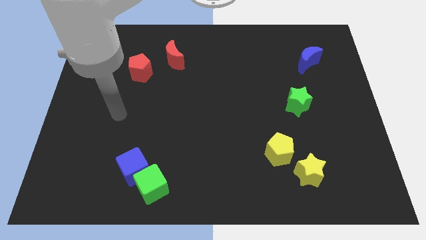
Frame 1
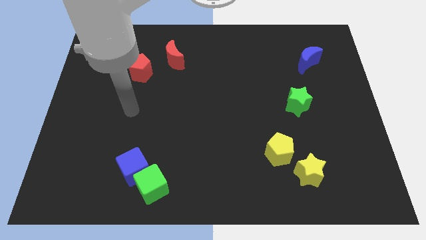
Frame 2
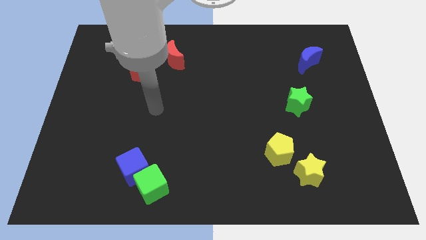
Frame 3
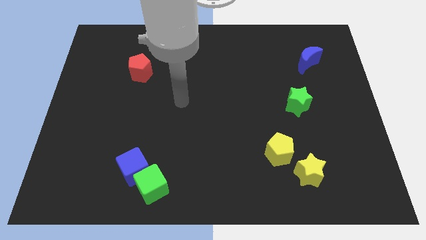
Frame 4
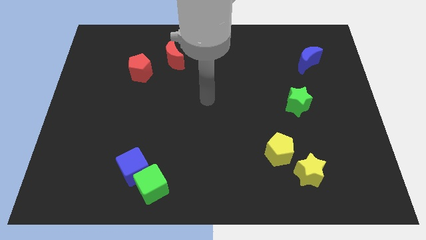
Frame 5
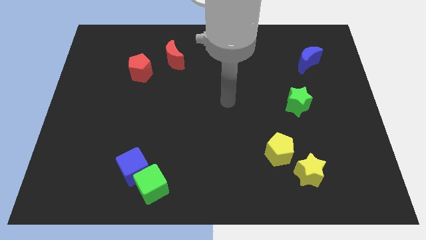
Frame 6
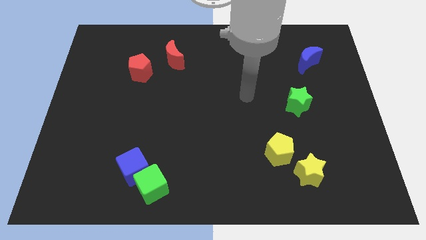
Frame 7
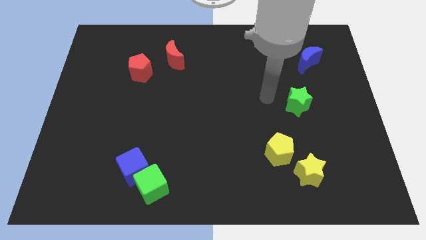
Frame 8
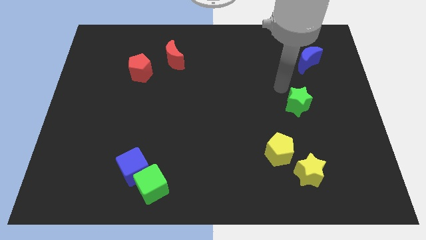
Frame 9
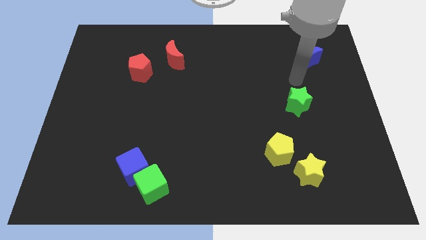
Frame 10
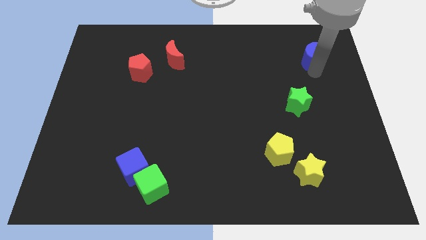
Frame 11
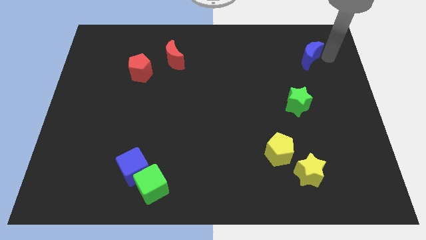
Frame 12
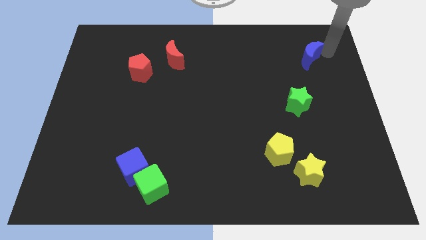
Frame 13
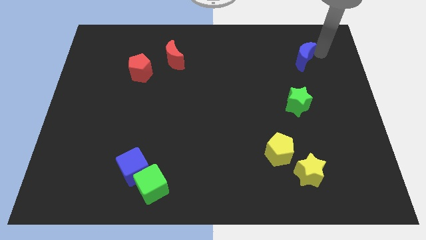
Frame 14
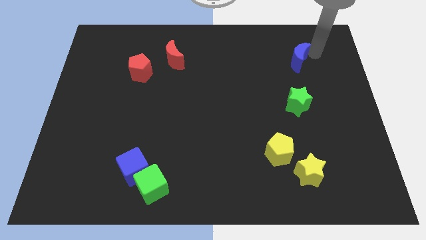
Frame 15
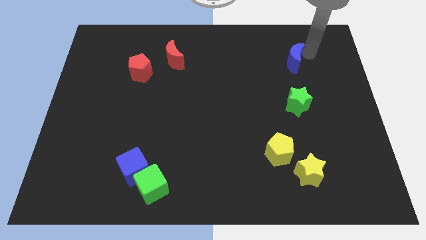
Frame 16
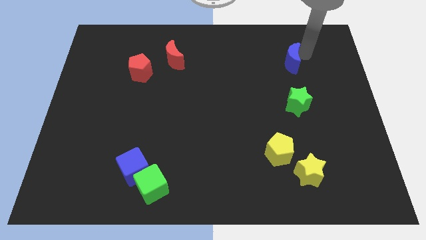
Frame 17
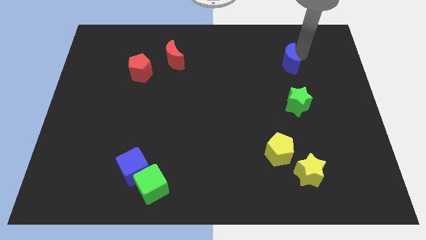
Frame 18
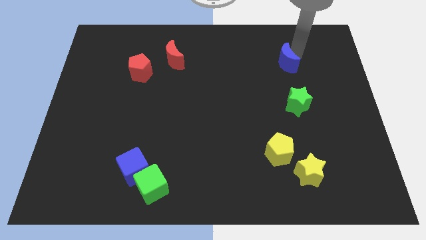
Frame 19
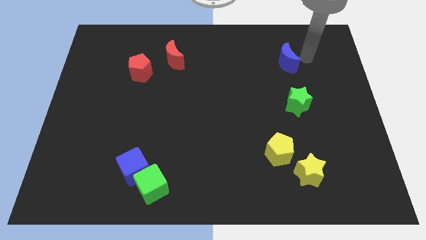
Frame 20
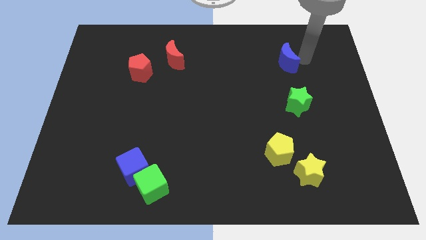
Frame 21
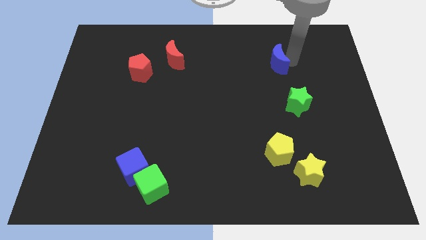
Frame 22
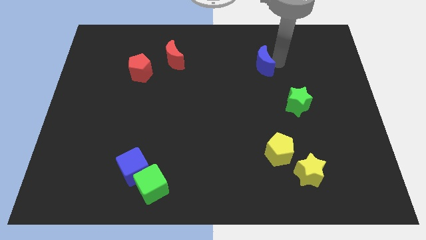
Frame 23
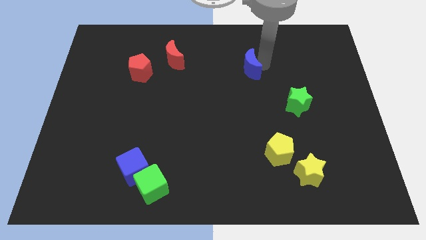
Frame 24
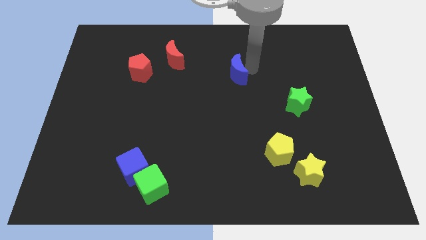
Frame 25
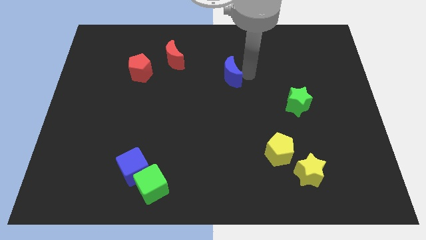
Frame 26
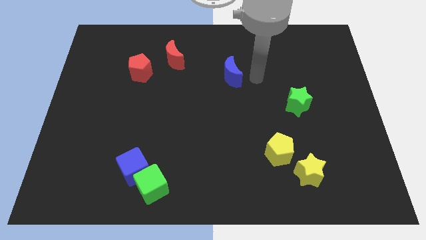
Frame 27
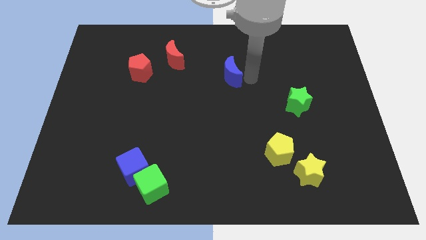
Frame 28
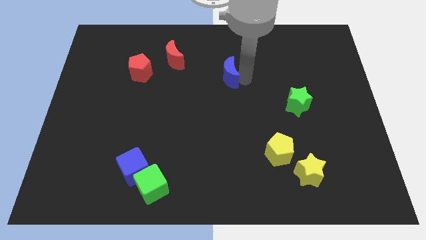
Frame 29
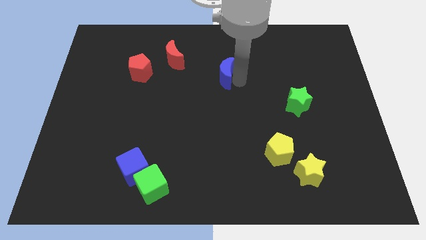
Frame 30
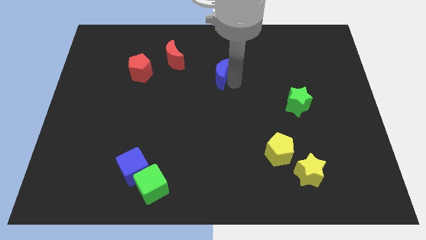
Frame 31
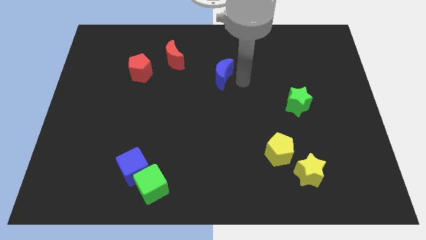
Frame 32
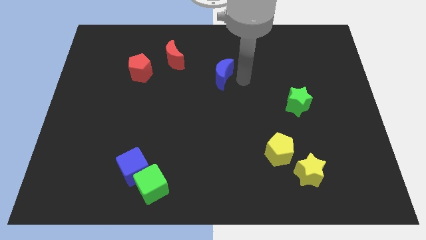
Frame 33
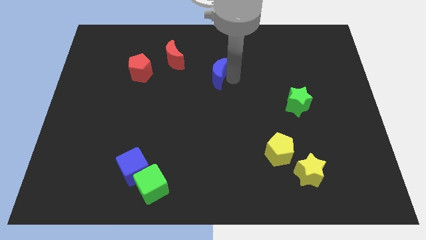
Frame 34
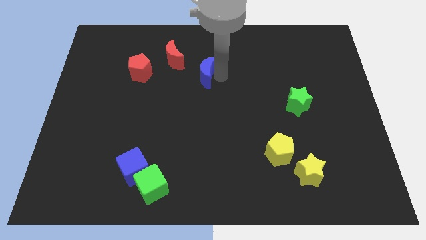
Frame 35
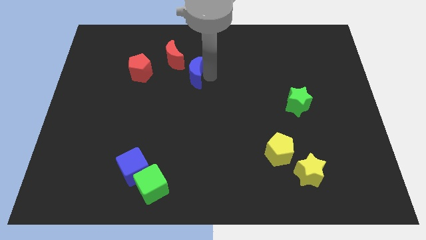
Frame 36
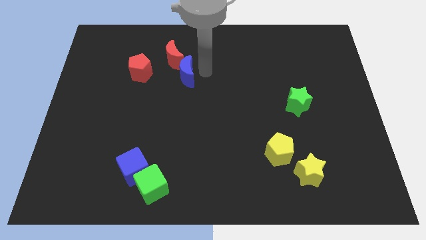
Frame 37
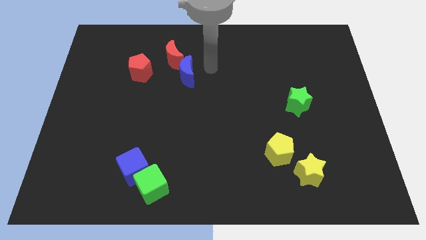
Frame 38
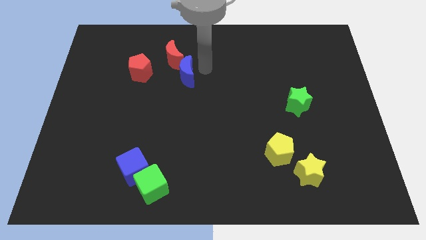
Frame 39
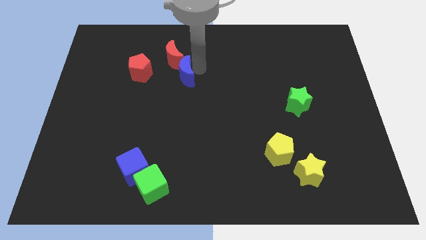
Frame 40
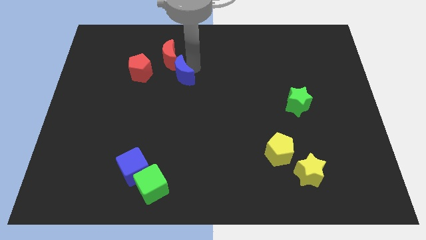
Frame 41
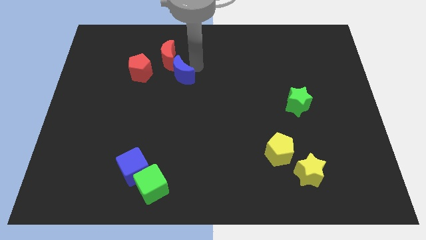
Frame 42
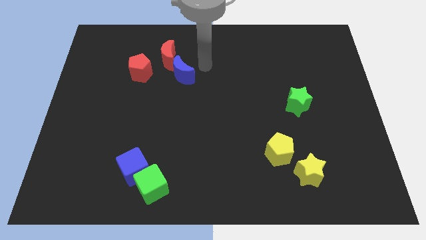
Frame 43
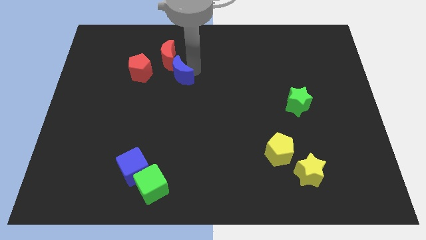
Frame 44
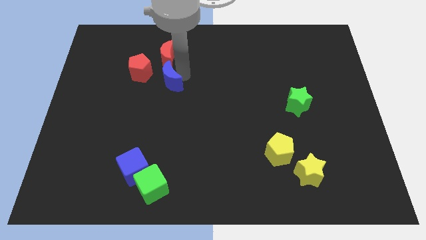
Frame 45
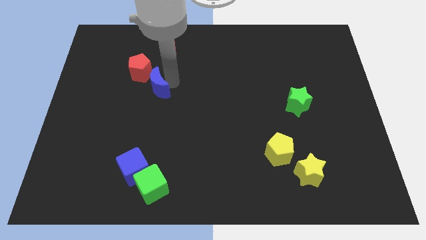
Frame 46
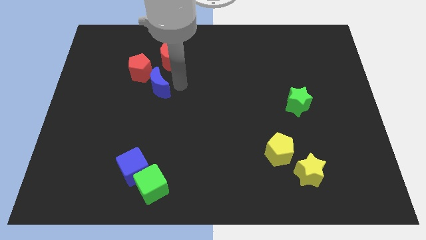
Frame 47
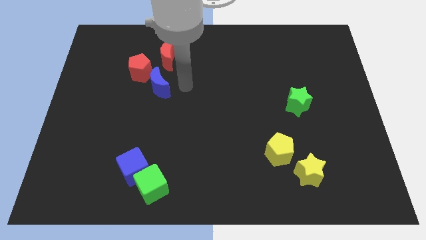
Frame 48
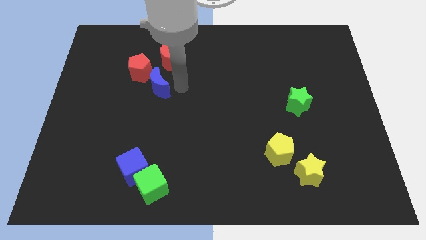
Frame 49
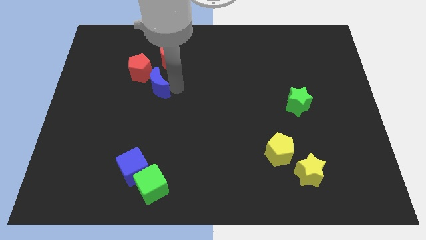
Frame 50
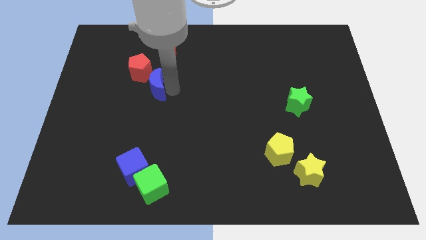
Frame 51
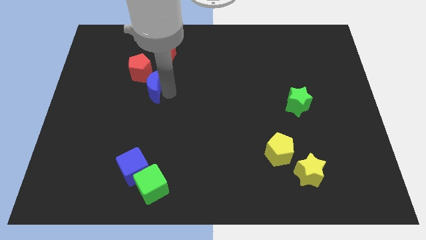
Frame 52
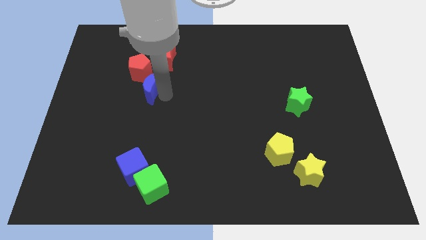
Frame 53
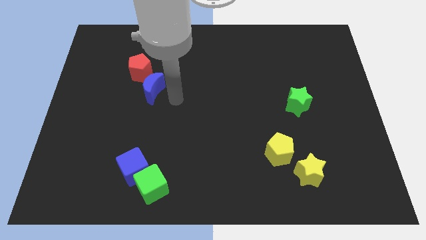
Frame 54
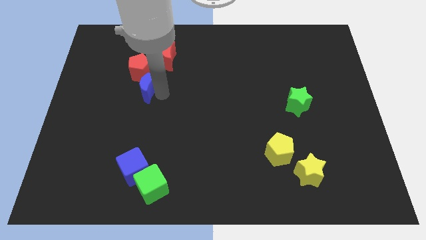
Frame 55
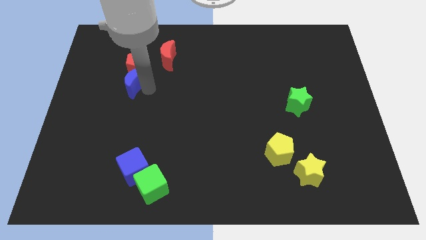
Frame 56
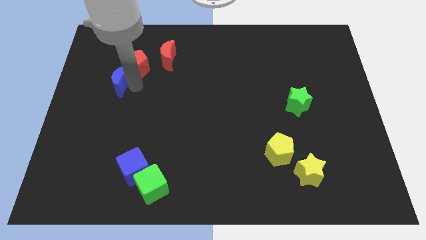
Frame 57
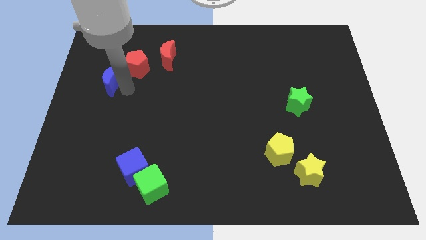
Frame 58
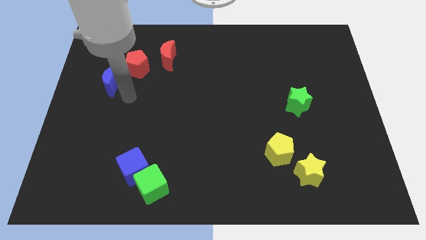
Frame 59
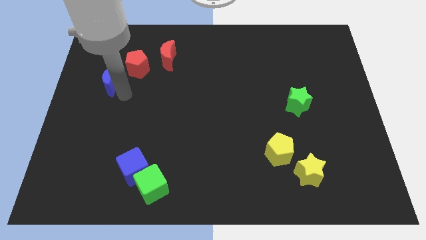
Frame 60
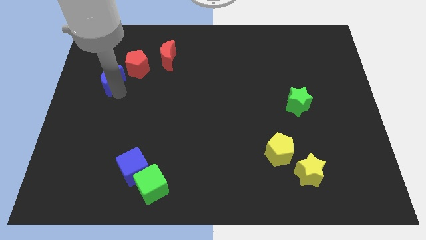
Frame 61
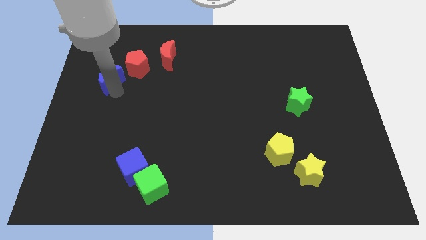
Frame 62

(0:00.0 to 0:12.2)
slide the blue moon to the left of the red pentagon

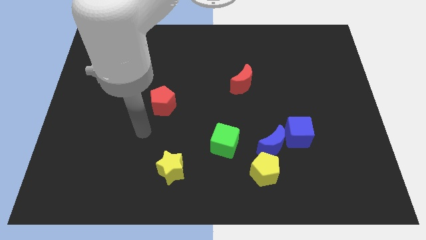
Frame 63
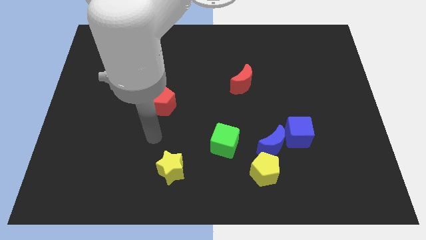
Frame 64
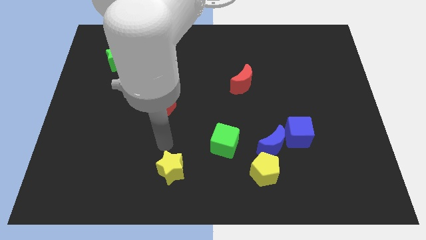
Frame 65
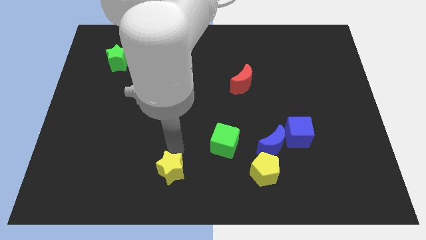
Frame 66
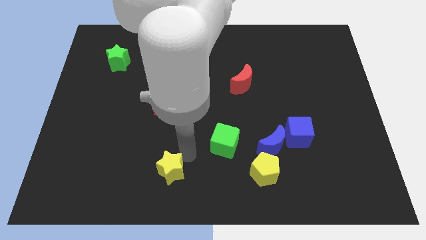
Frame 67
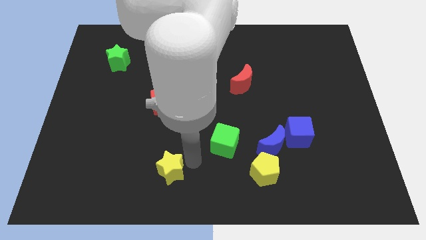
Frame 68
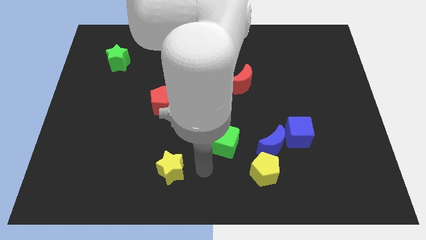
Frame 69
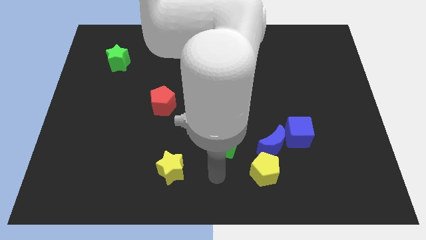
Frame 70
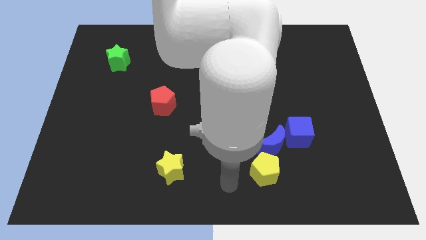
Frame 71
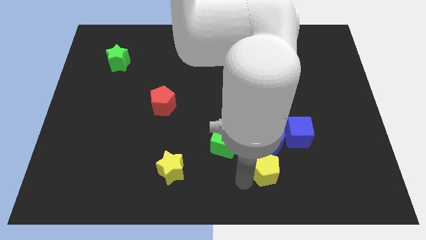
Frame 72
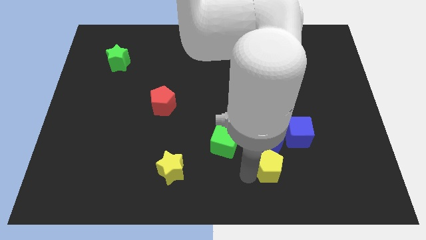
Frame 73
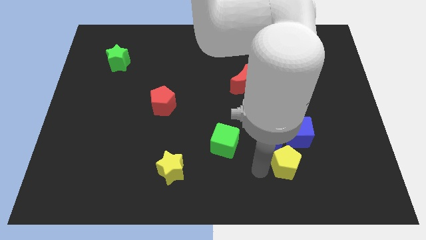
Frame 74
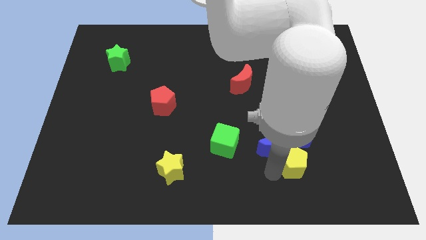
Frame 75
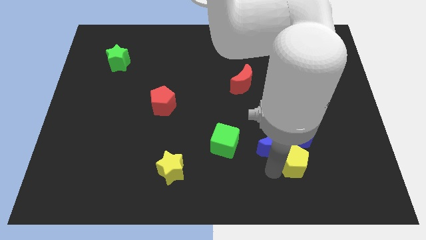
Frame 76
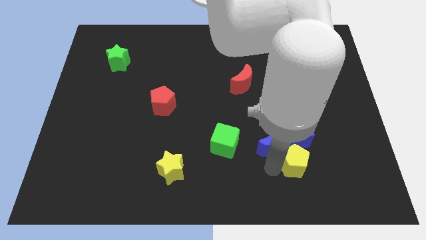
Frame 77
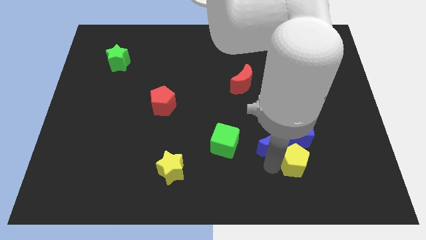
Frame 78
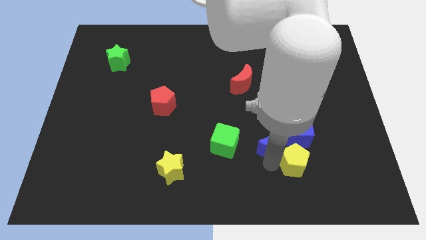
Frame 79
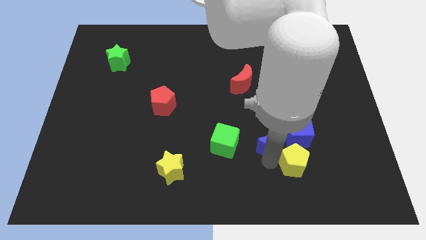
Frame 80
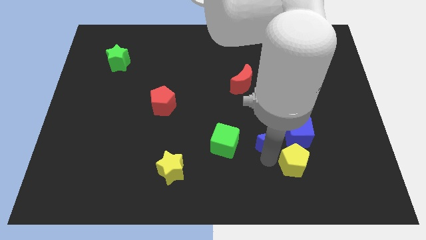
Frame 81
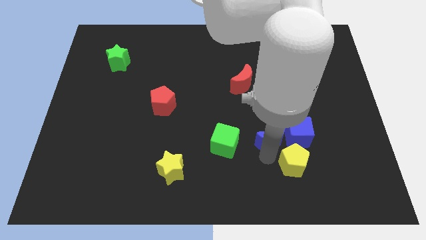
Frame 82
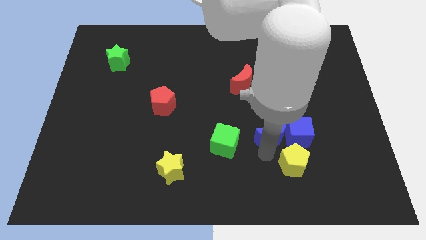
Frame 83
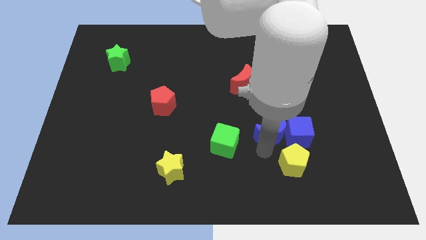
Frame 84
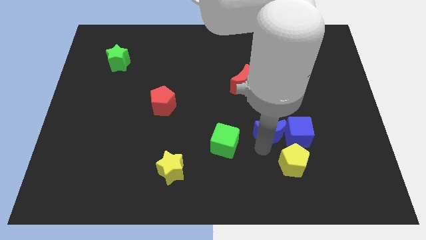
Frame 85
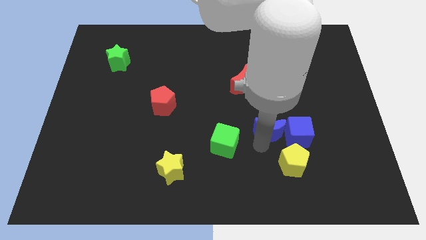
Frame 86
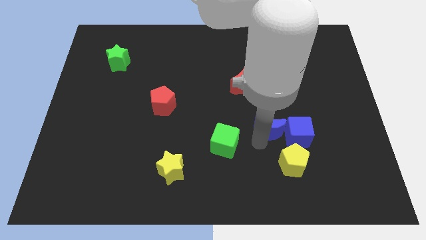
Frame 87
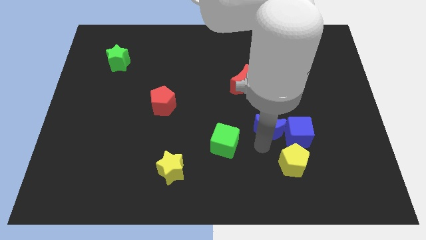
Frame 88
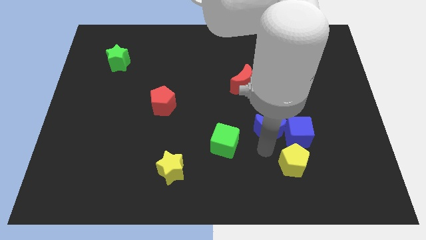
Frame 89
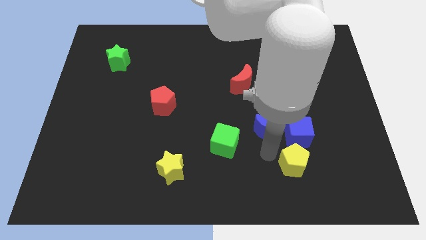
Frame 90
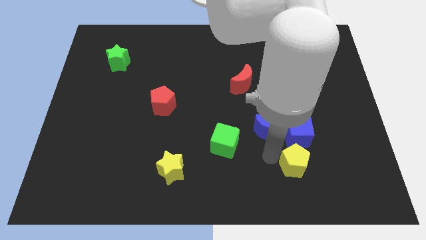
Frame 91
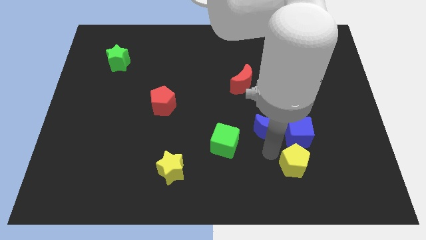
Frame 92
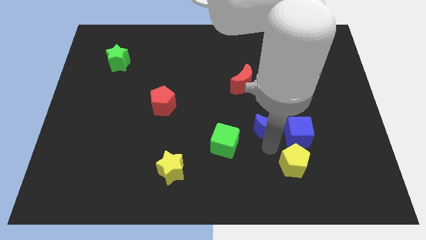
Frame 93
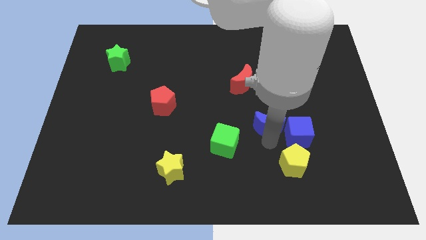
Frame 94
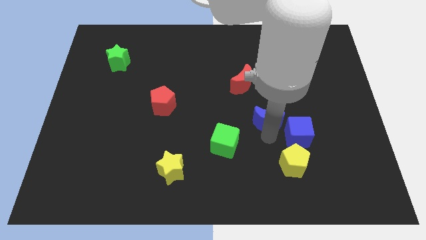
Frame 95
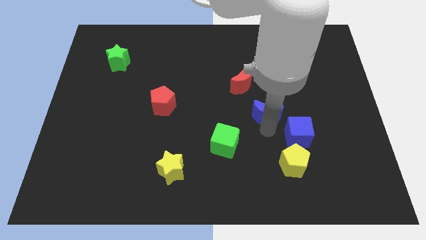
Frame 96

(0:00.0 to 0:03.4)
push the blue moon to the bottom right of the red moon
